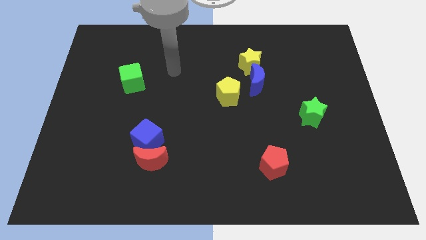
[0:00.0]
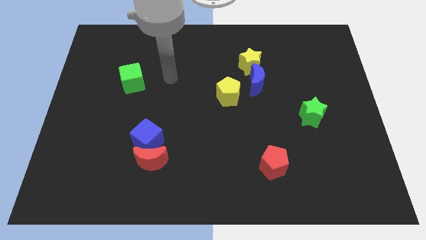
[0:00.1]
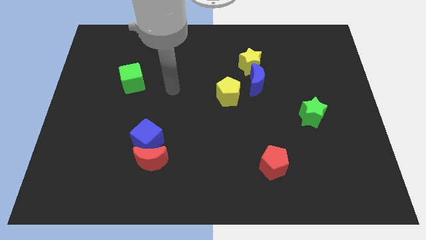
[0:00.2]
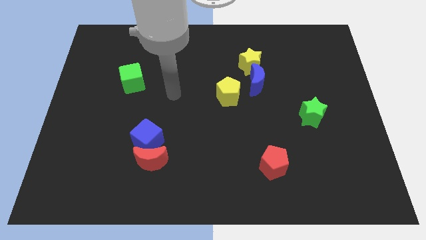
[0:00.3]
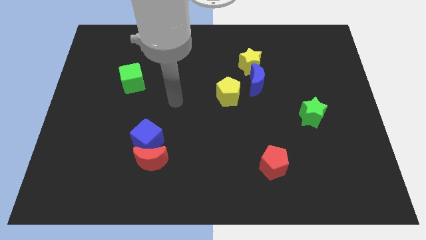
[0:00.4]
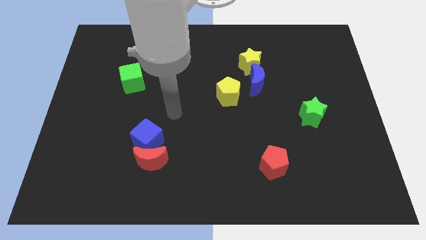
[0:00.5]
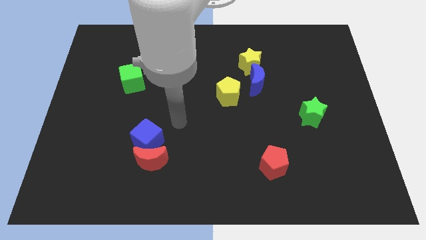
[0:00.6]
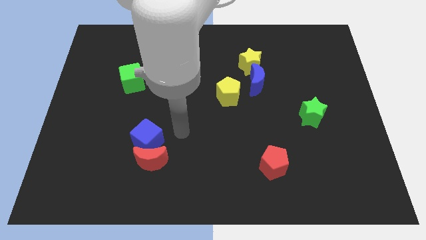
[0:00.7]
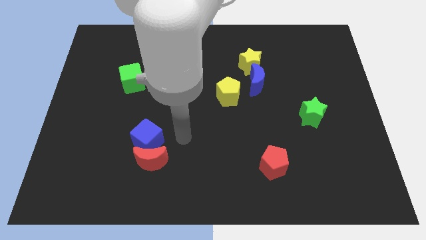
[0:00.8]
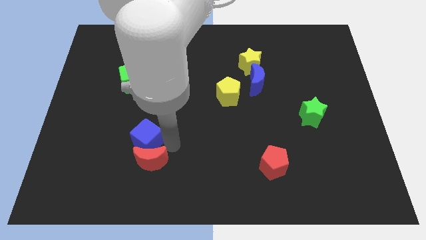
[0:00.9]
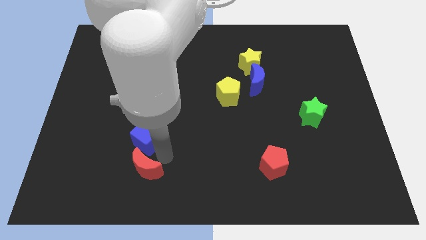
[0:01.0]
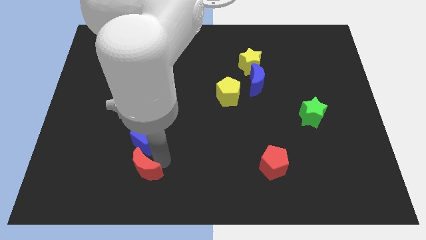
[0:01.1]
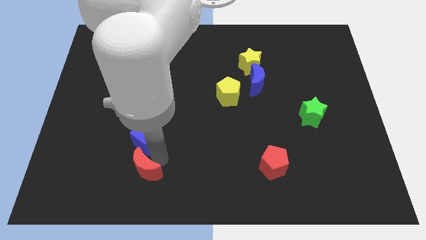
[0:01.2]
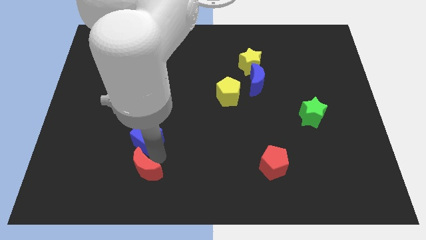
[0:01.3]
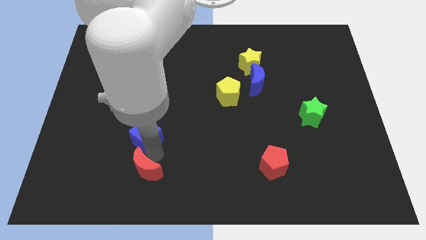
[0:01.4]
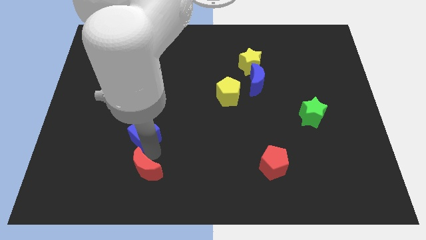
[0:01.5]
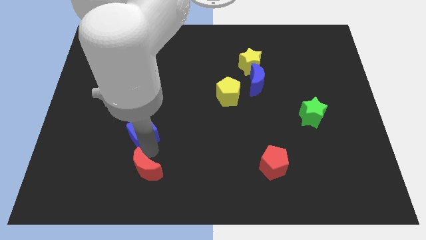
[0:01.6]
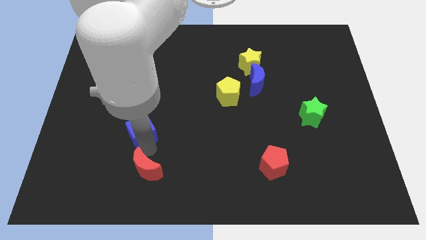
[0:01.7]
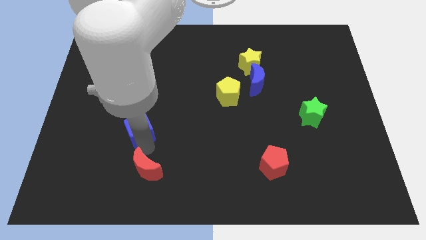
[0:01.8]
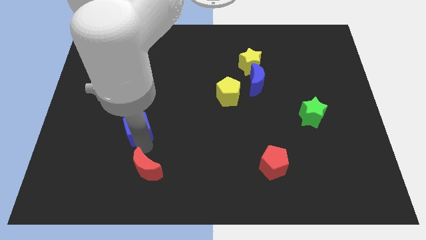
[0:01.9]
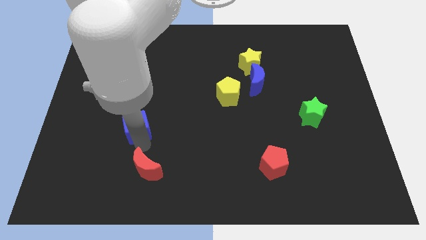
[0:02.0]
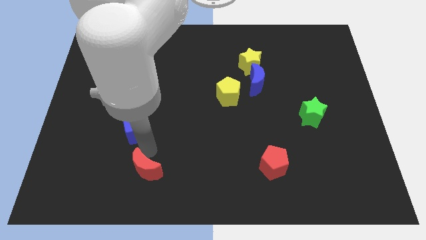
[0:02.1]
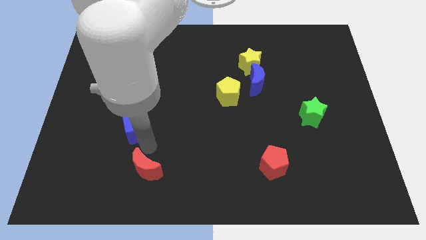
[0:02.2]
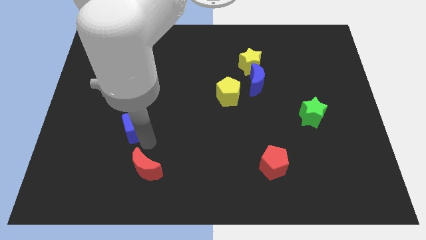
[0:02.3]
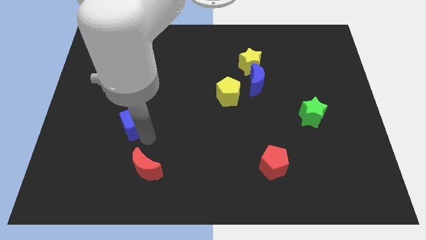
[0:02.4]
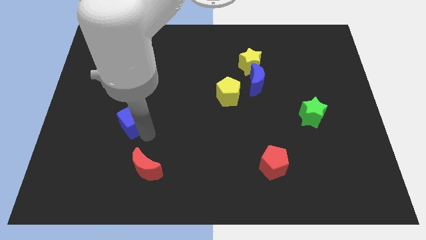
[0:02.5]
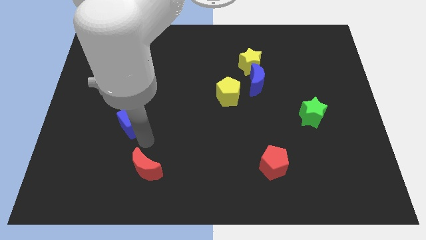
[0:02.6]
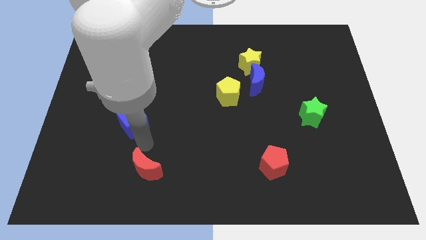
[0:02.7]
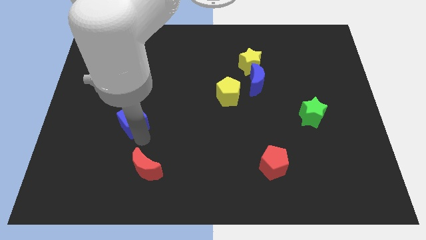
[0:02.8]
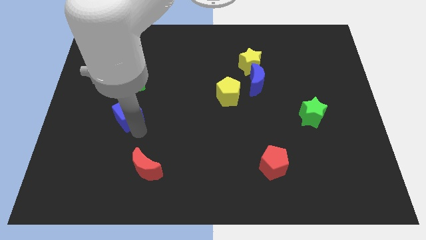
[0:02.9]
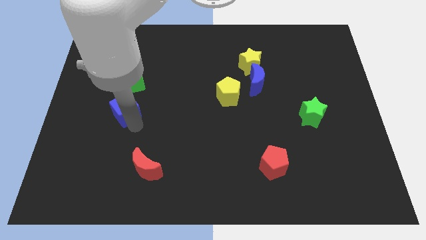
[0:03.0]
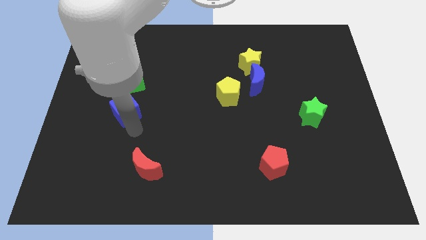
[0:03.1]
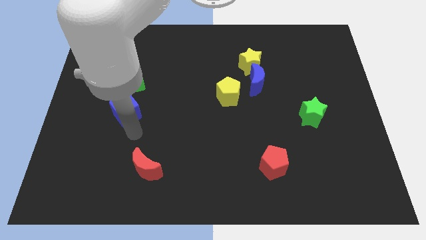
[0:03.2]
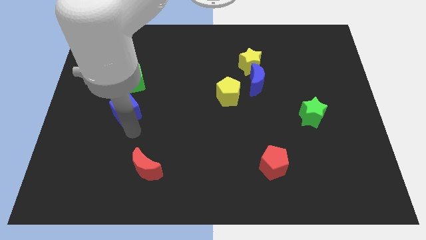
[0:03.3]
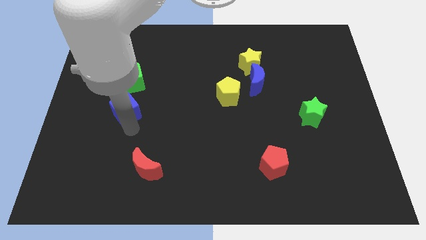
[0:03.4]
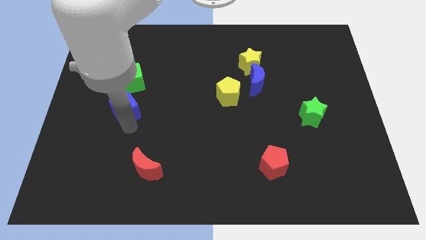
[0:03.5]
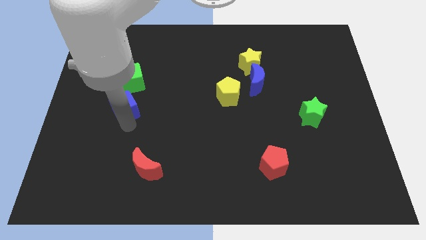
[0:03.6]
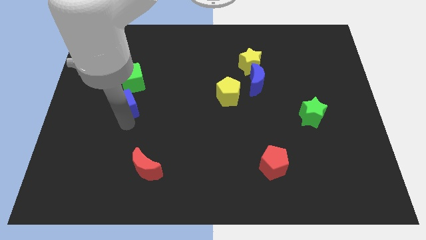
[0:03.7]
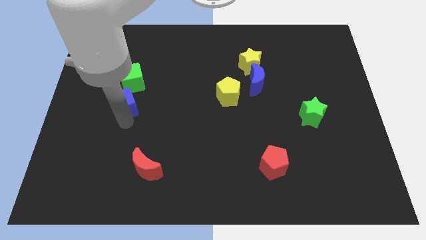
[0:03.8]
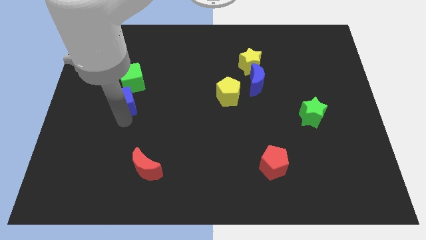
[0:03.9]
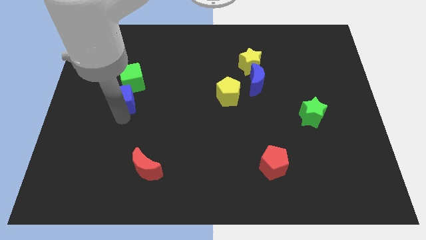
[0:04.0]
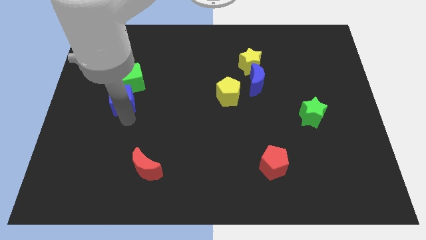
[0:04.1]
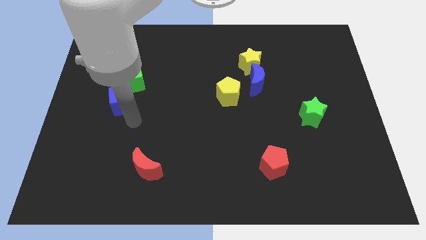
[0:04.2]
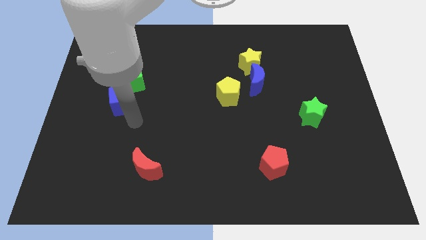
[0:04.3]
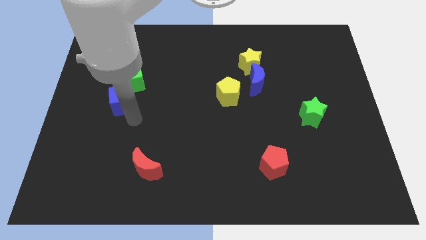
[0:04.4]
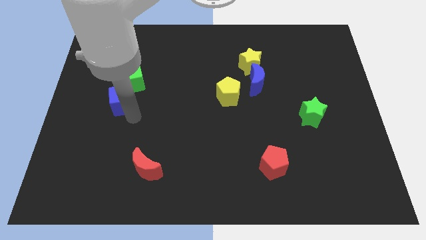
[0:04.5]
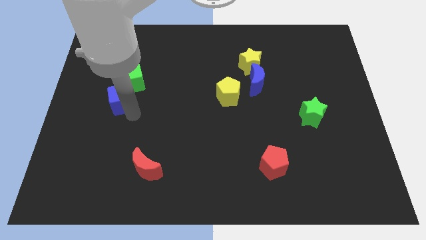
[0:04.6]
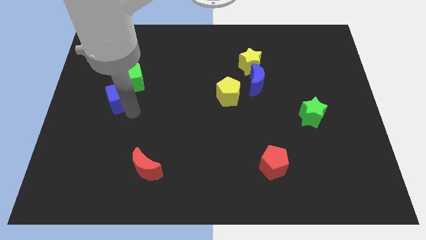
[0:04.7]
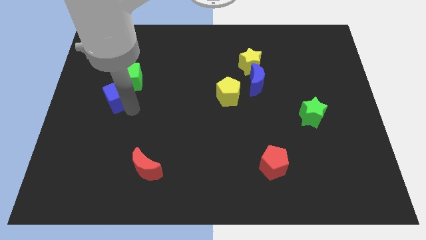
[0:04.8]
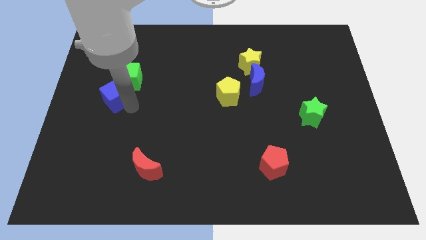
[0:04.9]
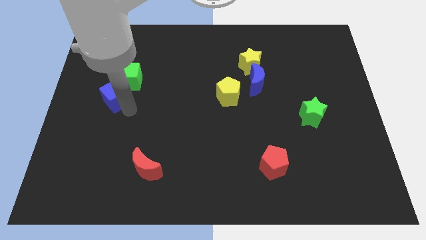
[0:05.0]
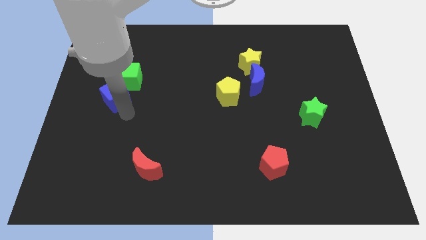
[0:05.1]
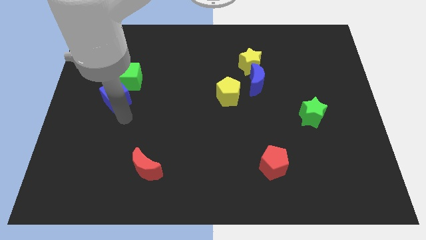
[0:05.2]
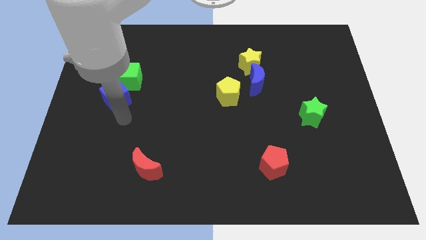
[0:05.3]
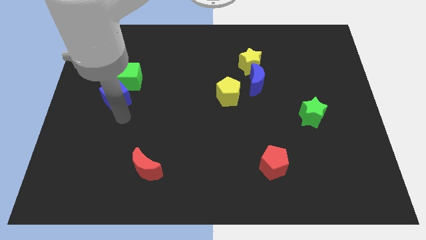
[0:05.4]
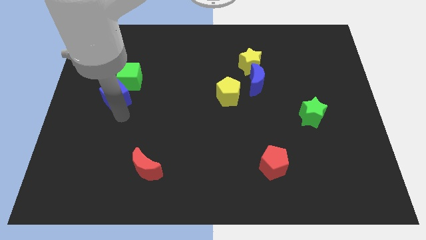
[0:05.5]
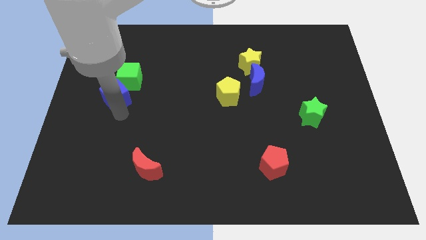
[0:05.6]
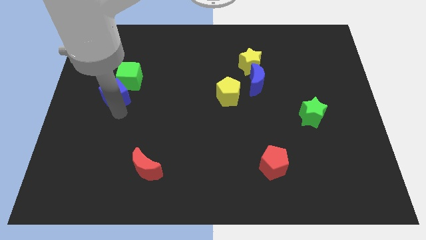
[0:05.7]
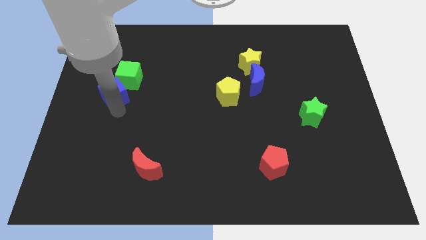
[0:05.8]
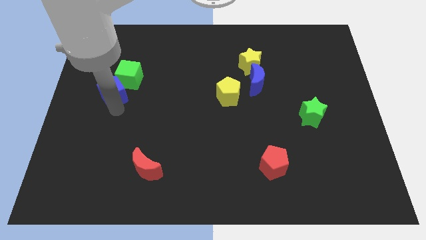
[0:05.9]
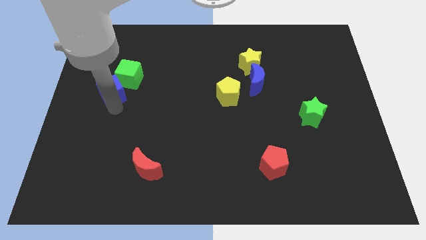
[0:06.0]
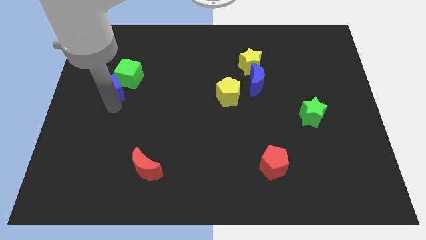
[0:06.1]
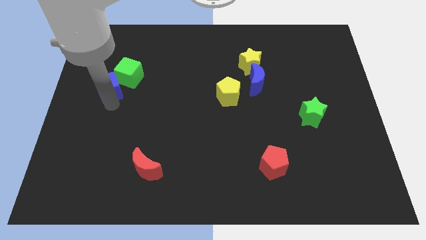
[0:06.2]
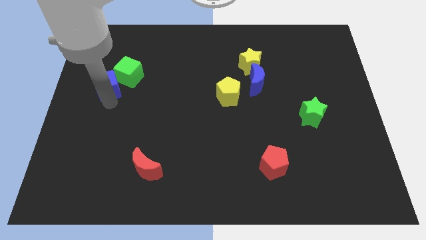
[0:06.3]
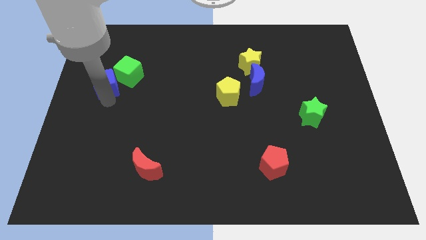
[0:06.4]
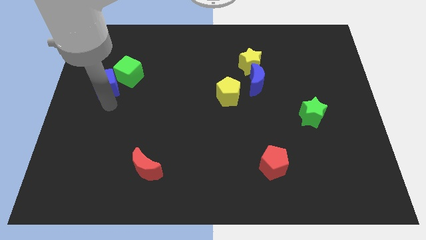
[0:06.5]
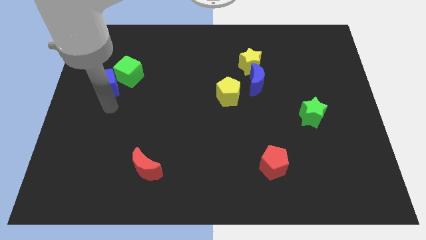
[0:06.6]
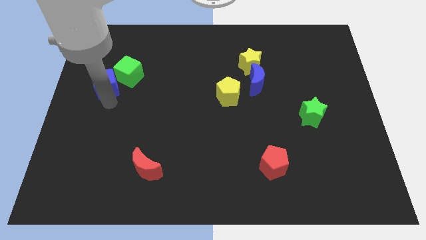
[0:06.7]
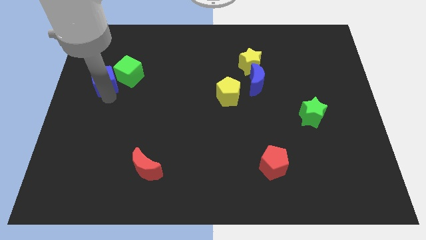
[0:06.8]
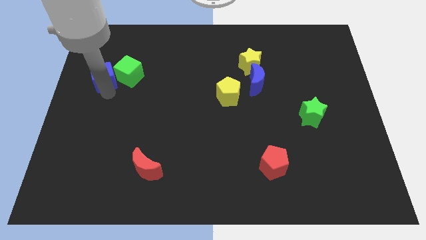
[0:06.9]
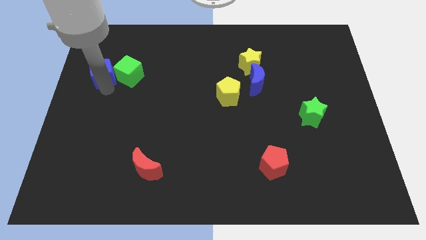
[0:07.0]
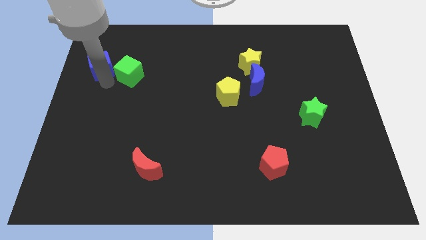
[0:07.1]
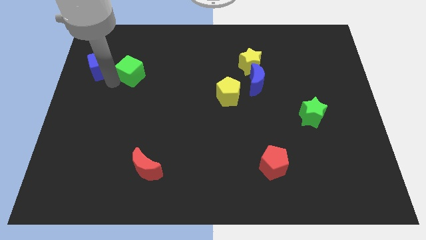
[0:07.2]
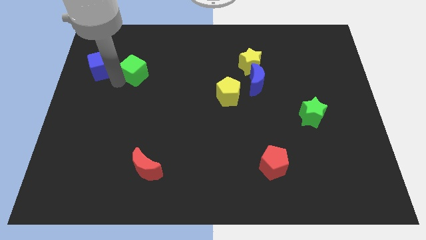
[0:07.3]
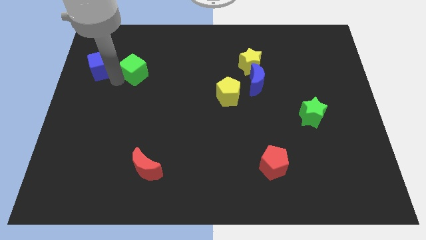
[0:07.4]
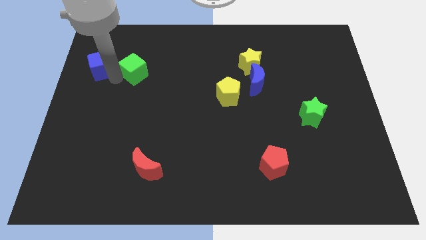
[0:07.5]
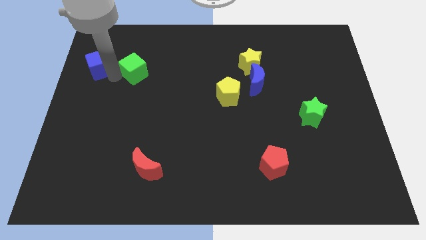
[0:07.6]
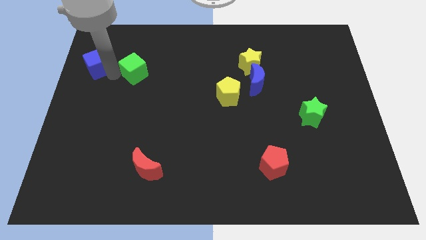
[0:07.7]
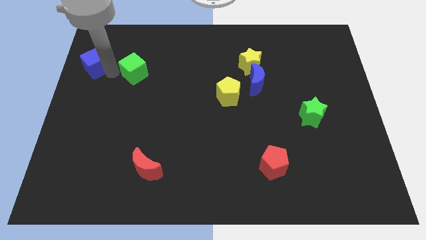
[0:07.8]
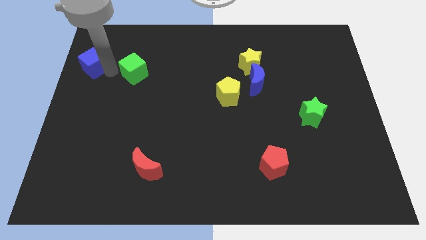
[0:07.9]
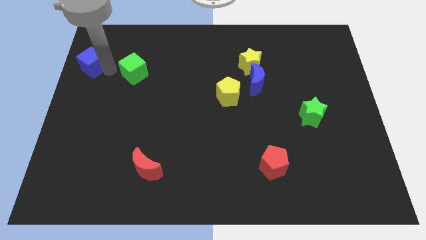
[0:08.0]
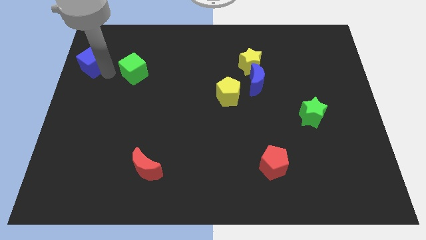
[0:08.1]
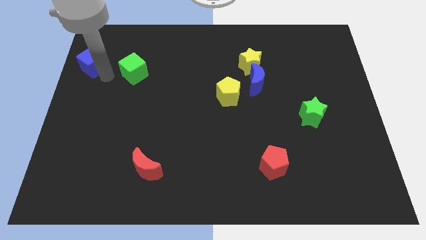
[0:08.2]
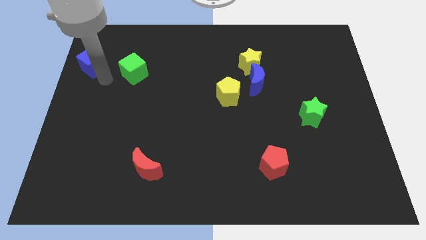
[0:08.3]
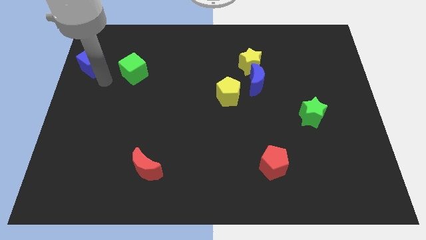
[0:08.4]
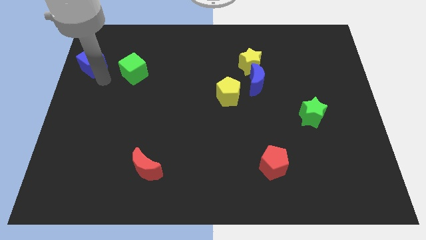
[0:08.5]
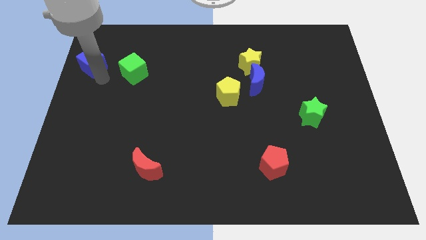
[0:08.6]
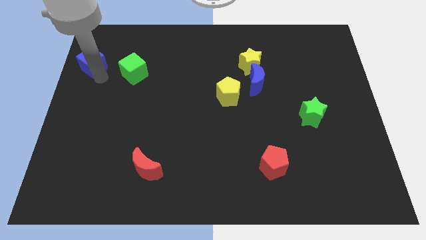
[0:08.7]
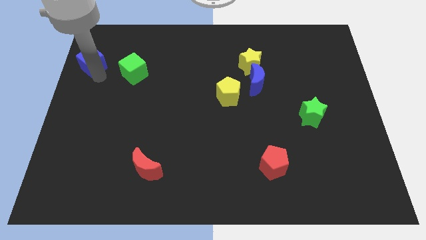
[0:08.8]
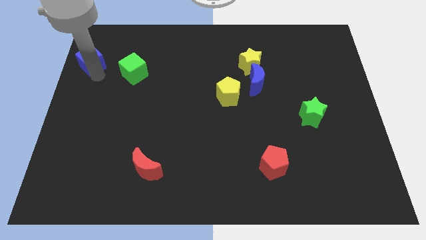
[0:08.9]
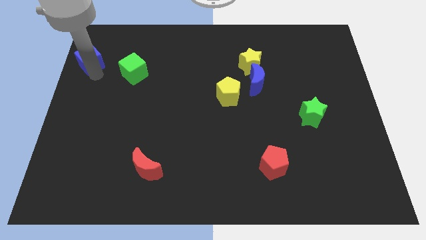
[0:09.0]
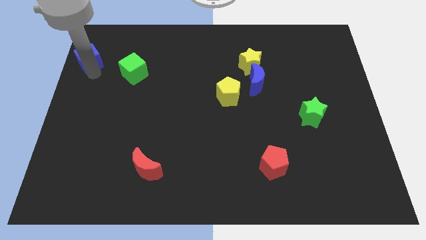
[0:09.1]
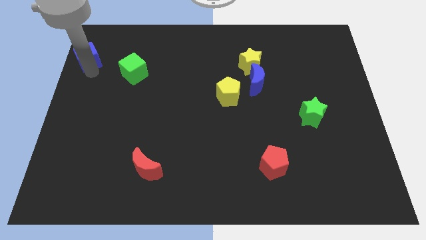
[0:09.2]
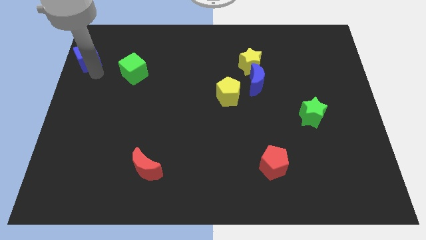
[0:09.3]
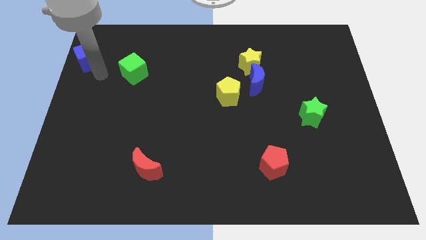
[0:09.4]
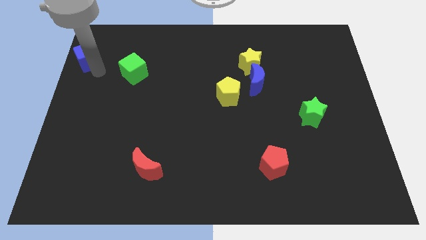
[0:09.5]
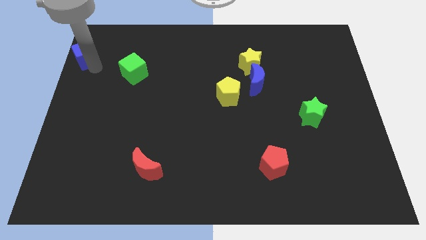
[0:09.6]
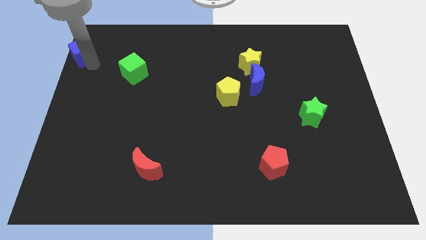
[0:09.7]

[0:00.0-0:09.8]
slide the blue cube to the upper left corner
